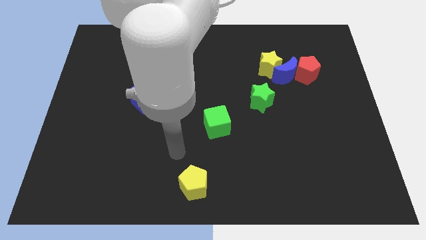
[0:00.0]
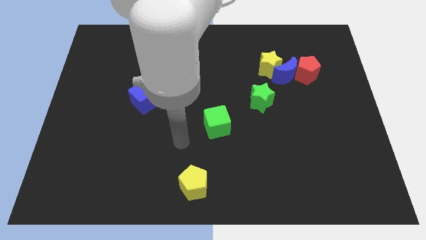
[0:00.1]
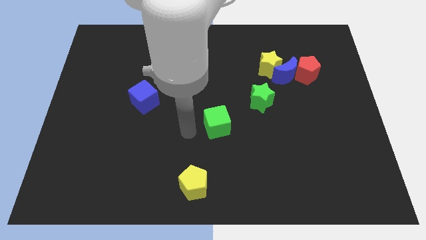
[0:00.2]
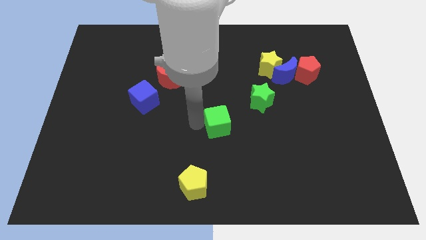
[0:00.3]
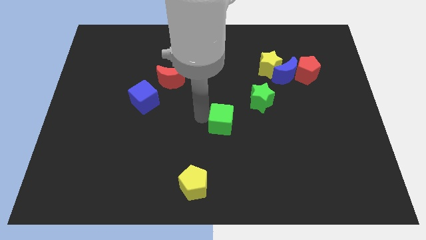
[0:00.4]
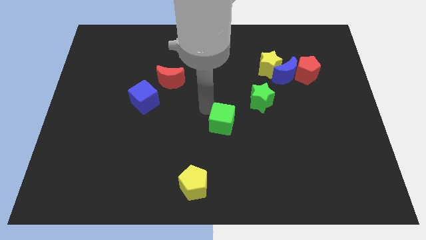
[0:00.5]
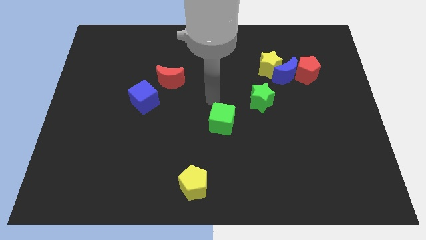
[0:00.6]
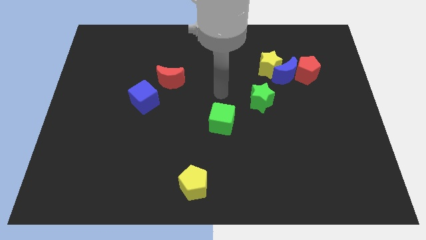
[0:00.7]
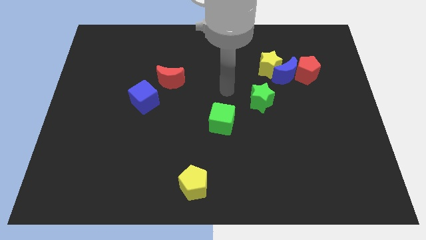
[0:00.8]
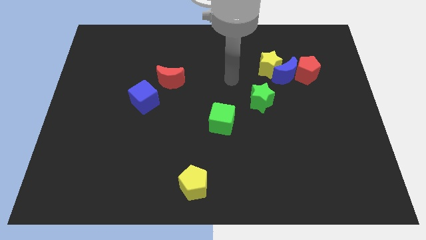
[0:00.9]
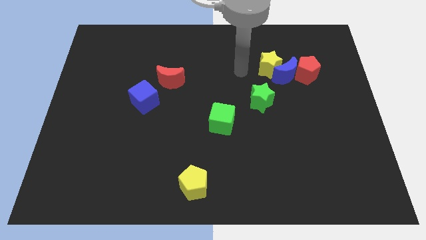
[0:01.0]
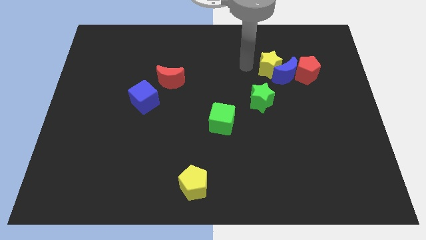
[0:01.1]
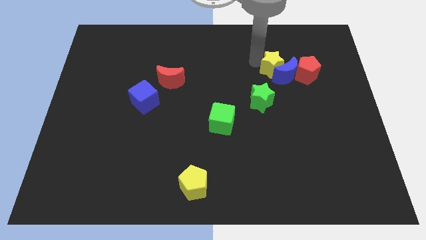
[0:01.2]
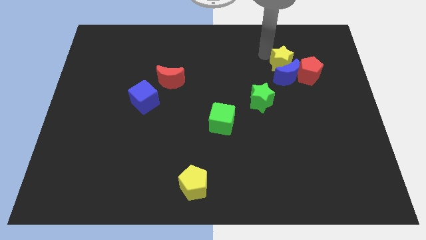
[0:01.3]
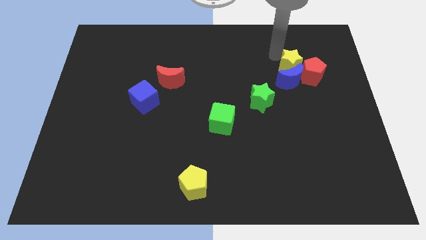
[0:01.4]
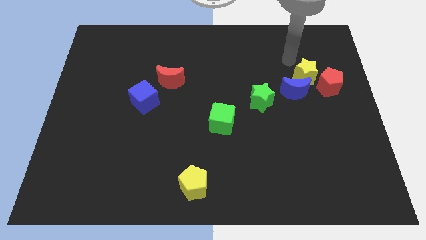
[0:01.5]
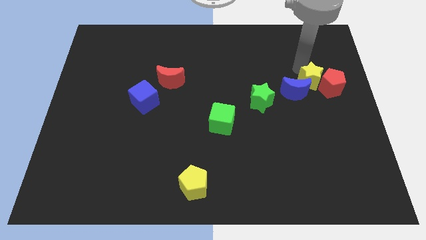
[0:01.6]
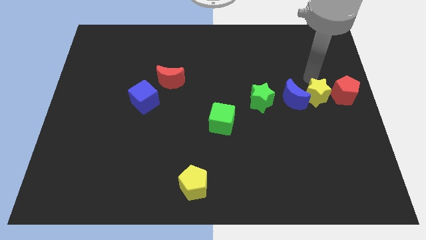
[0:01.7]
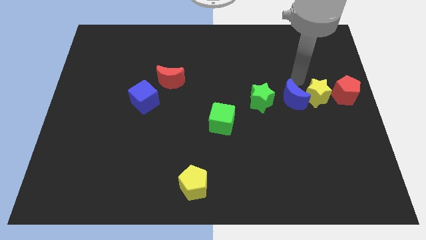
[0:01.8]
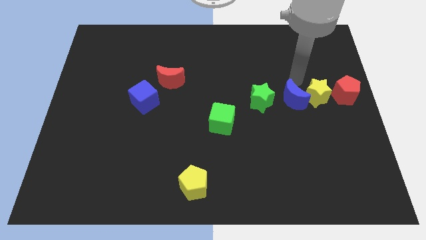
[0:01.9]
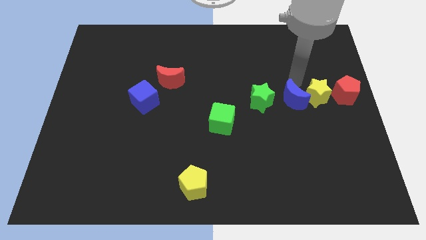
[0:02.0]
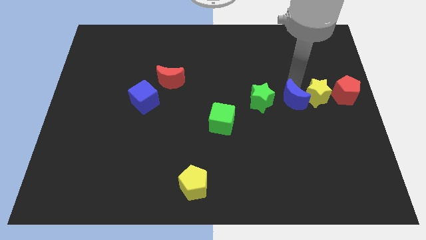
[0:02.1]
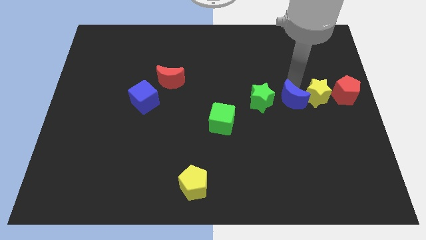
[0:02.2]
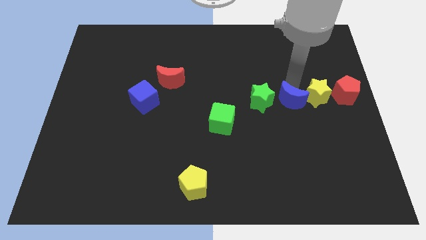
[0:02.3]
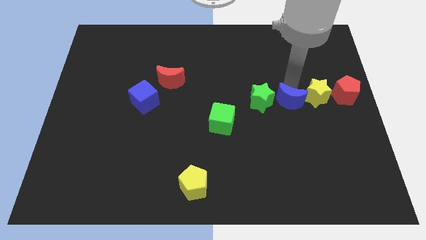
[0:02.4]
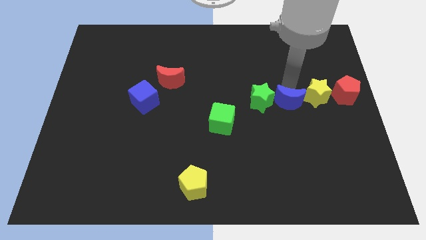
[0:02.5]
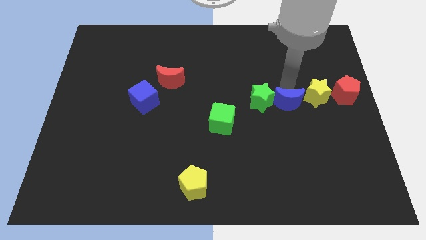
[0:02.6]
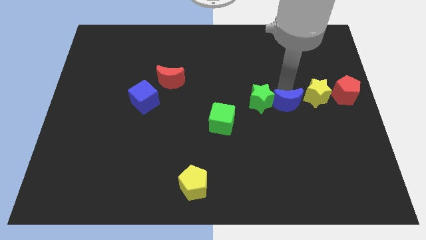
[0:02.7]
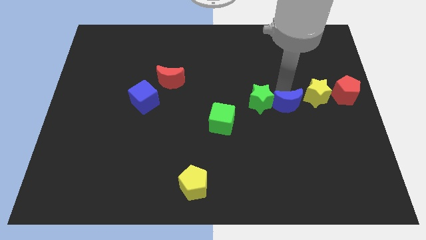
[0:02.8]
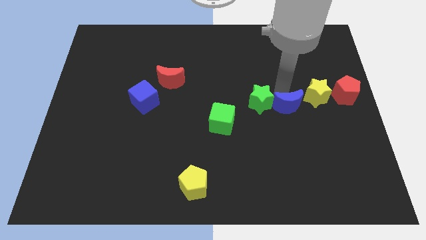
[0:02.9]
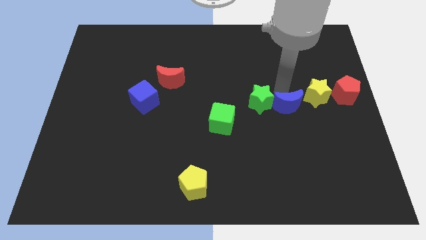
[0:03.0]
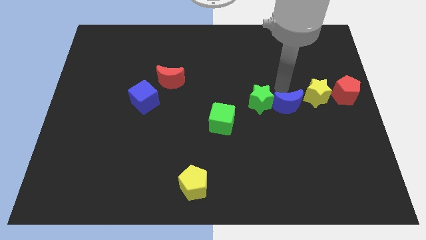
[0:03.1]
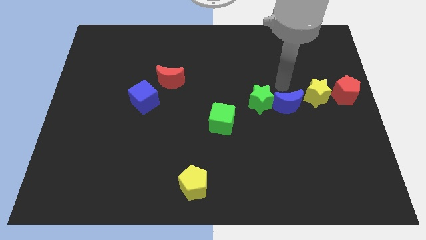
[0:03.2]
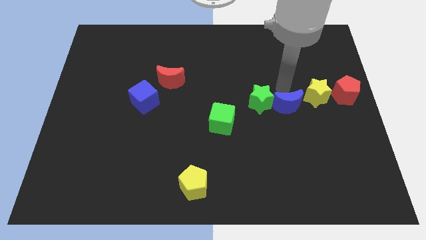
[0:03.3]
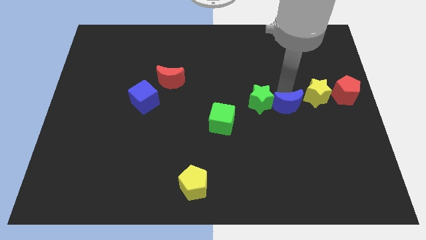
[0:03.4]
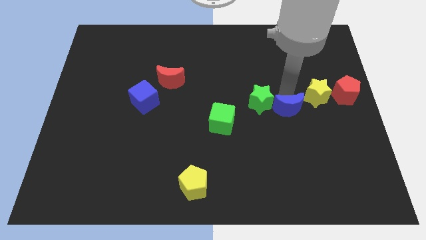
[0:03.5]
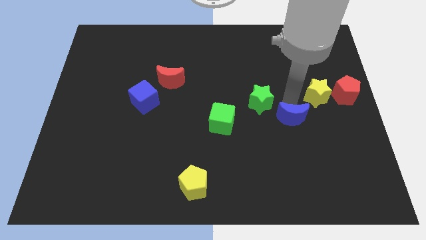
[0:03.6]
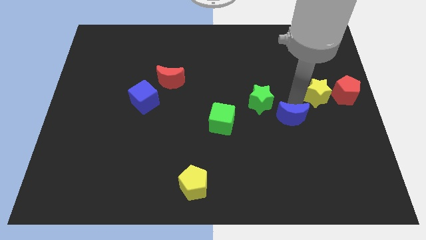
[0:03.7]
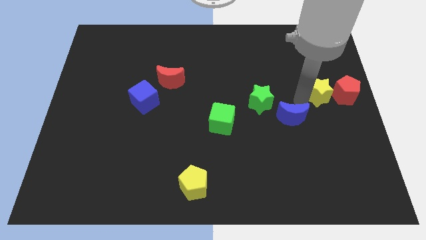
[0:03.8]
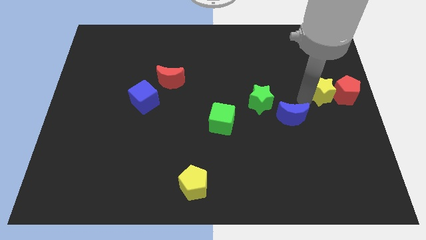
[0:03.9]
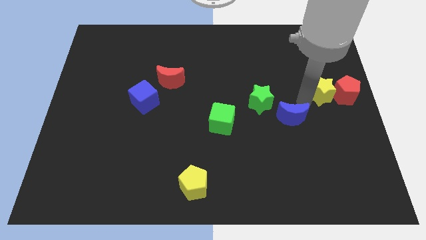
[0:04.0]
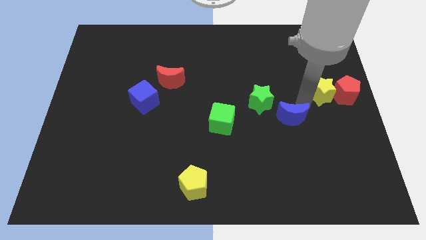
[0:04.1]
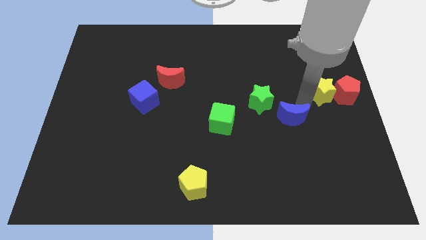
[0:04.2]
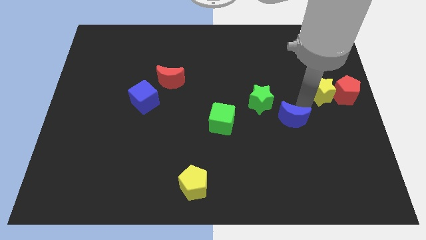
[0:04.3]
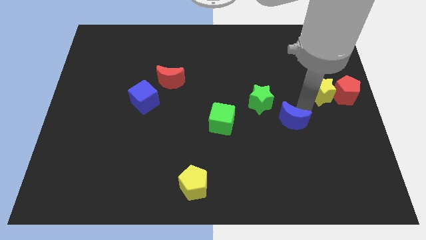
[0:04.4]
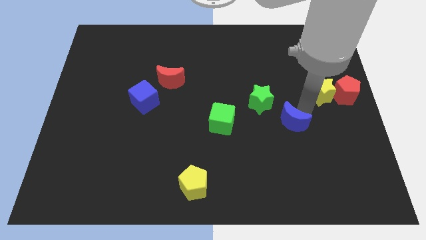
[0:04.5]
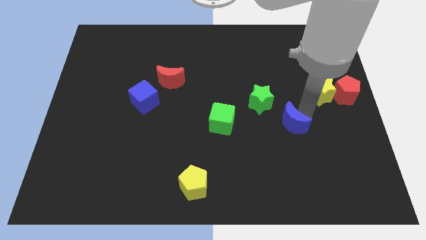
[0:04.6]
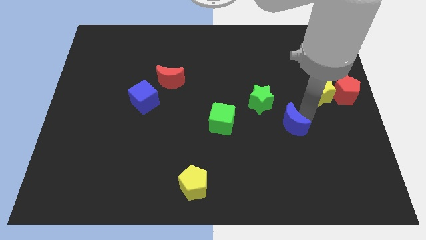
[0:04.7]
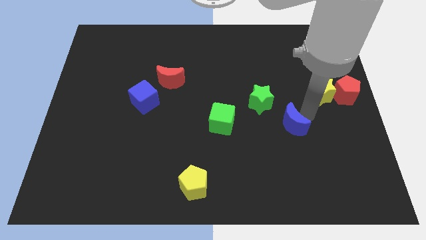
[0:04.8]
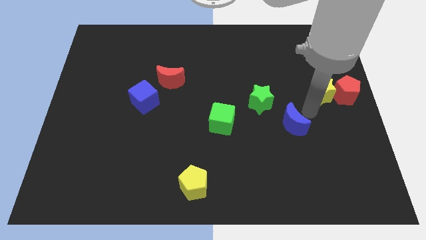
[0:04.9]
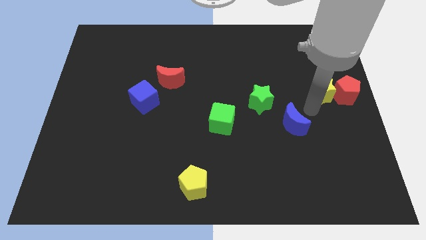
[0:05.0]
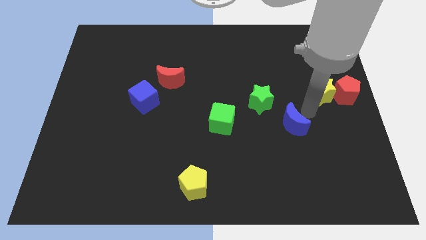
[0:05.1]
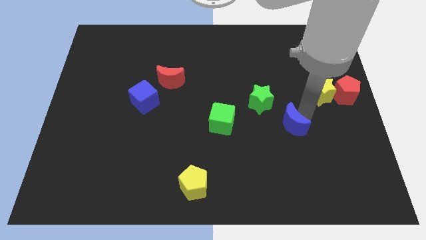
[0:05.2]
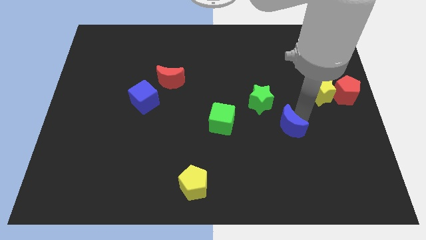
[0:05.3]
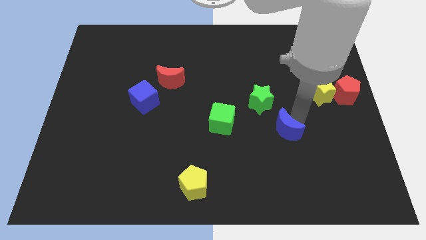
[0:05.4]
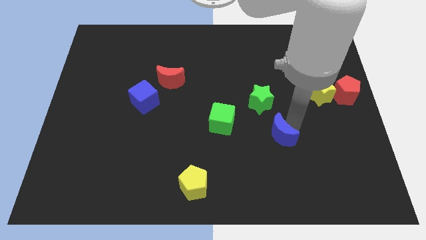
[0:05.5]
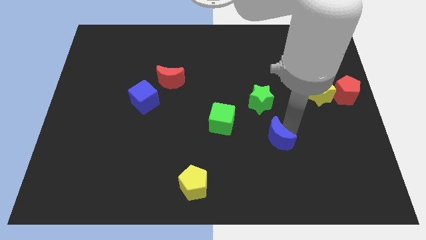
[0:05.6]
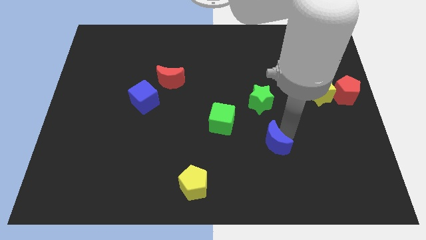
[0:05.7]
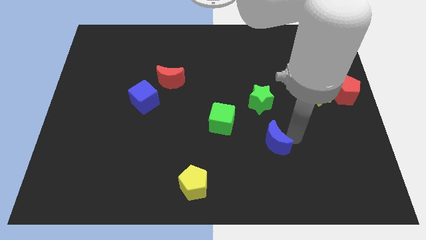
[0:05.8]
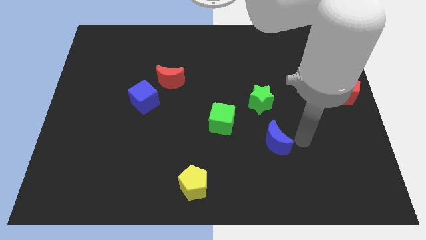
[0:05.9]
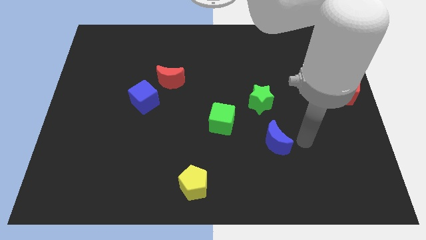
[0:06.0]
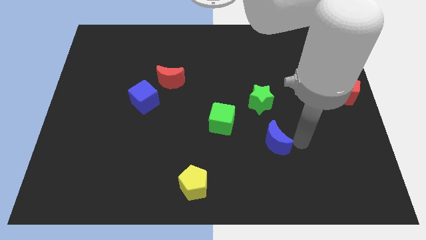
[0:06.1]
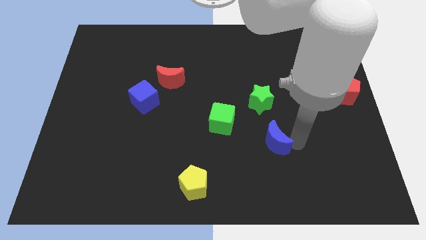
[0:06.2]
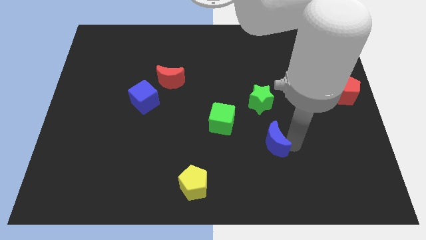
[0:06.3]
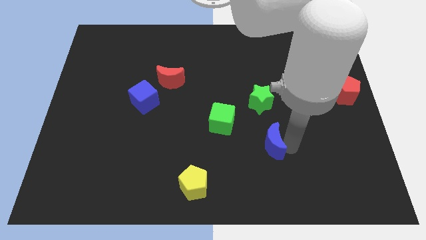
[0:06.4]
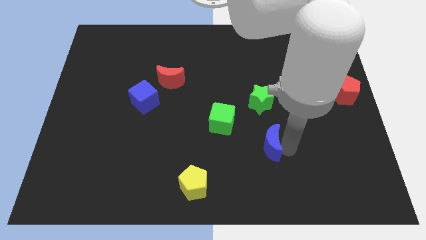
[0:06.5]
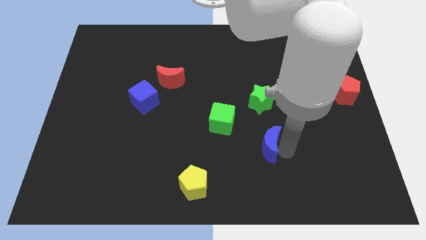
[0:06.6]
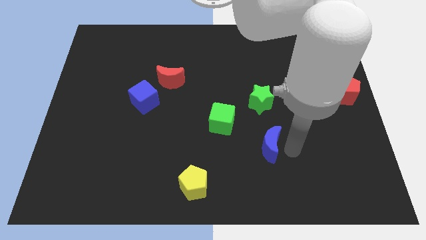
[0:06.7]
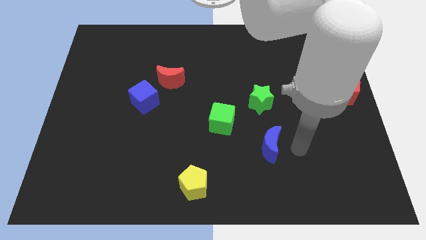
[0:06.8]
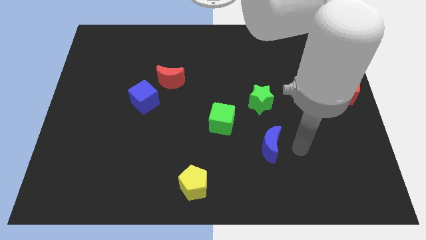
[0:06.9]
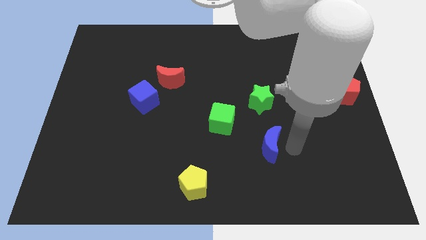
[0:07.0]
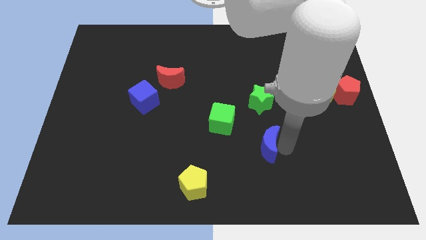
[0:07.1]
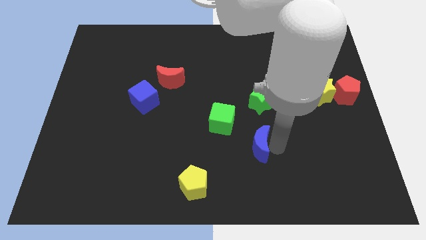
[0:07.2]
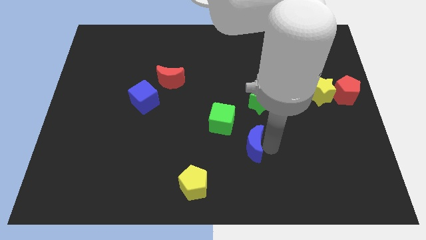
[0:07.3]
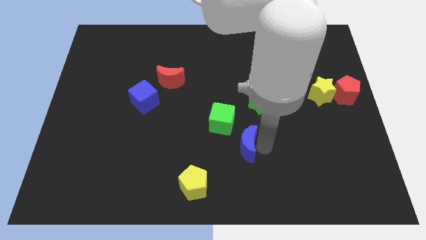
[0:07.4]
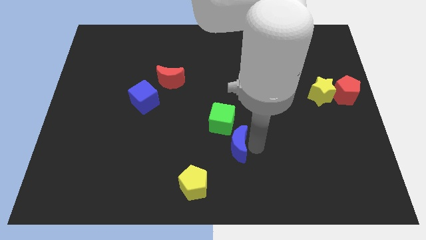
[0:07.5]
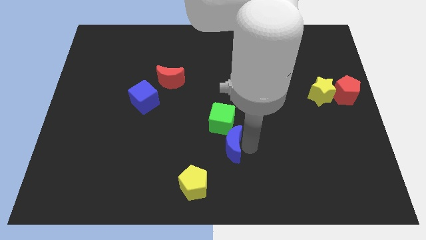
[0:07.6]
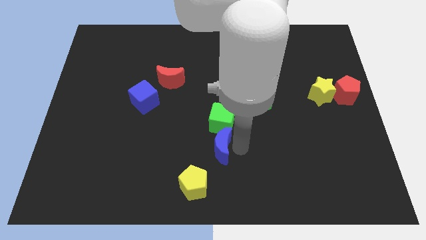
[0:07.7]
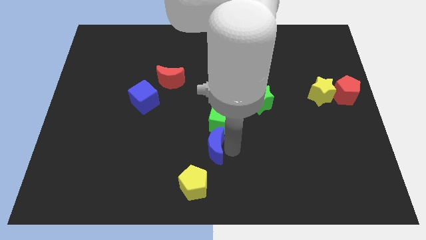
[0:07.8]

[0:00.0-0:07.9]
put the blue moon to the top of the yellow pentagon
